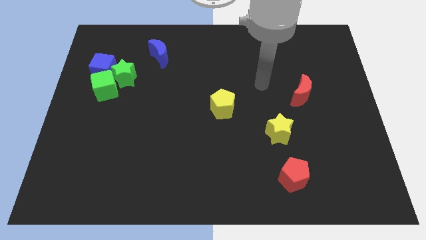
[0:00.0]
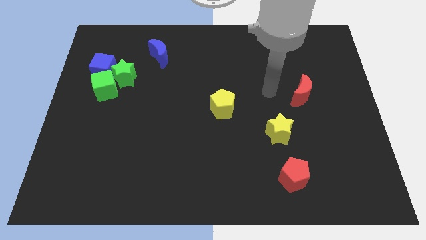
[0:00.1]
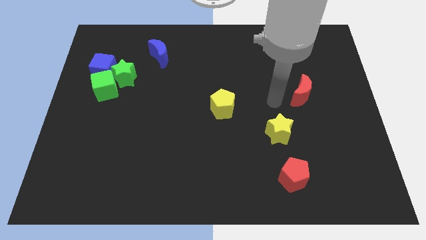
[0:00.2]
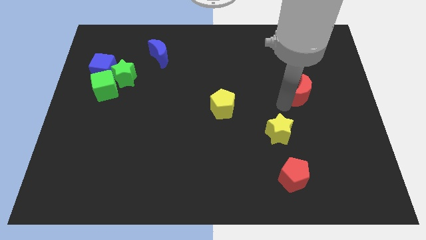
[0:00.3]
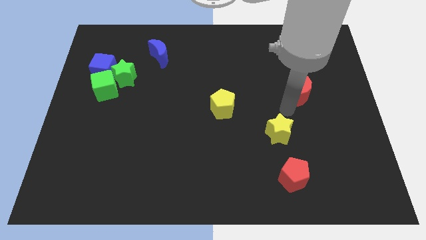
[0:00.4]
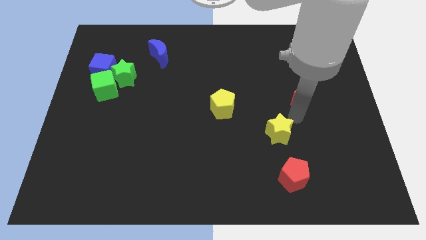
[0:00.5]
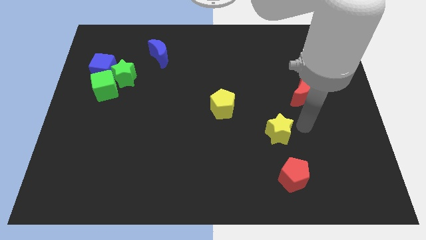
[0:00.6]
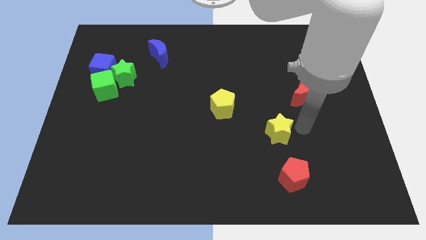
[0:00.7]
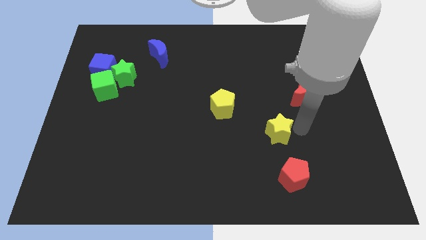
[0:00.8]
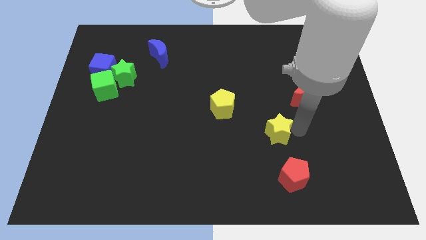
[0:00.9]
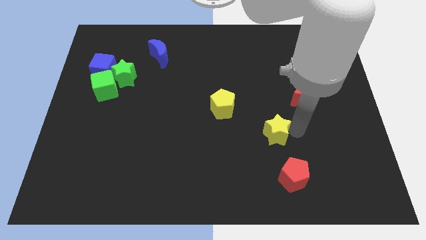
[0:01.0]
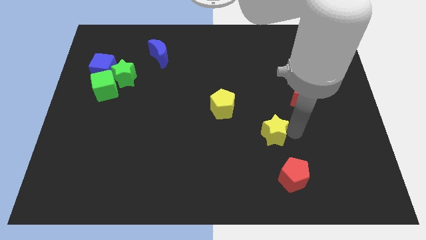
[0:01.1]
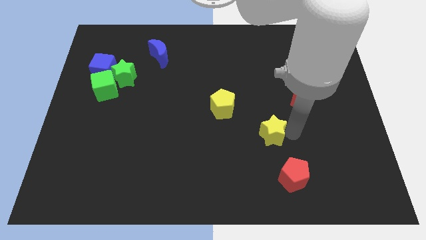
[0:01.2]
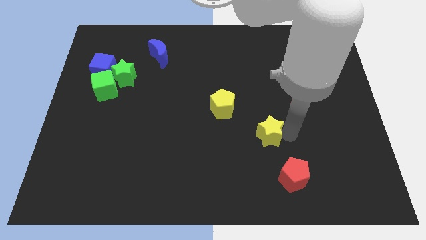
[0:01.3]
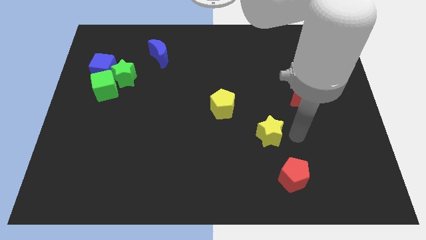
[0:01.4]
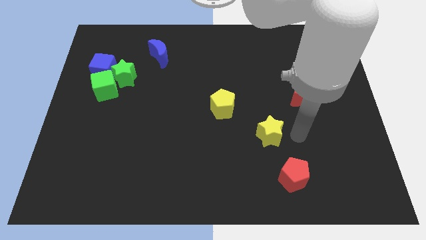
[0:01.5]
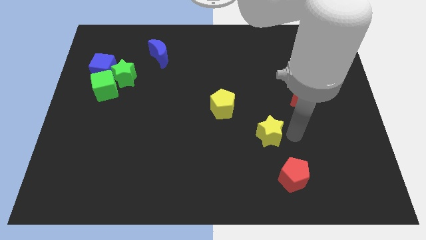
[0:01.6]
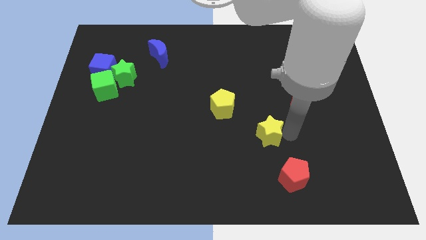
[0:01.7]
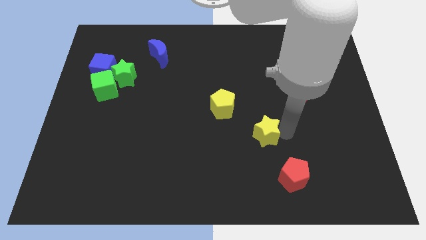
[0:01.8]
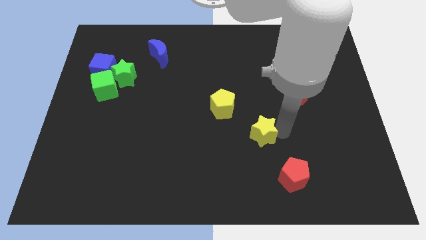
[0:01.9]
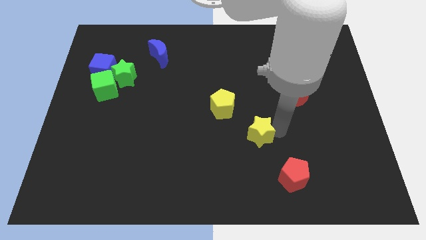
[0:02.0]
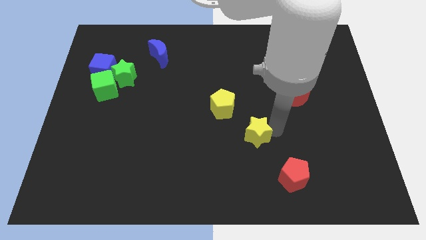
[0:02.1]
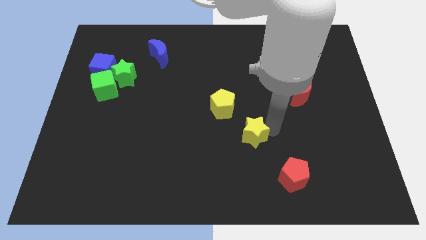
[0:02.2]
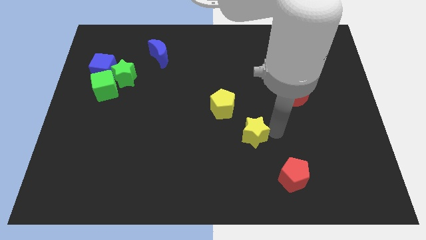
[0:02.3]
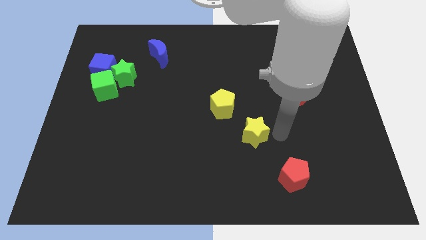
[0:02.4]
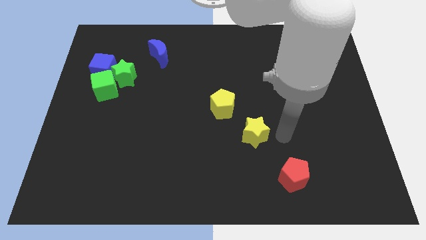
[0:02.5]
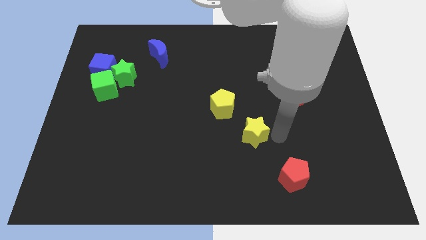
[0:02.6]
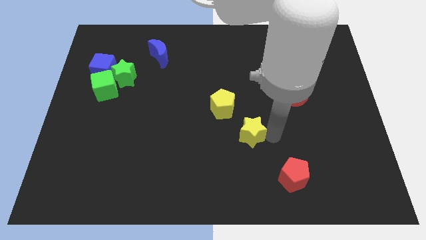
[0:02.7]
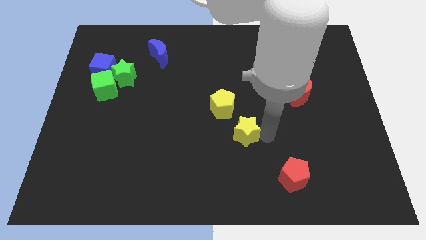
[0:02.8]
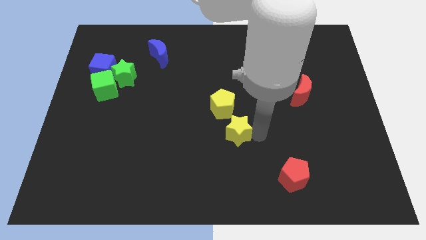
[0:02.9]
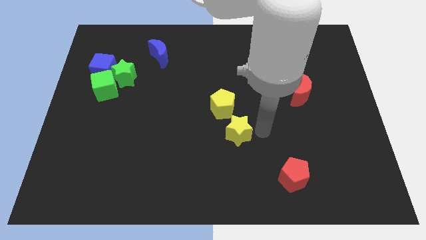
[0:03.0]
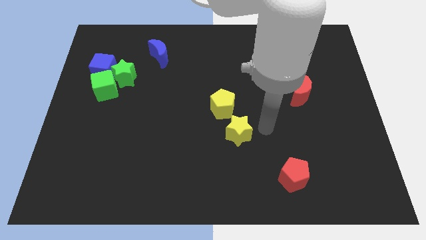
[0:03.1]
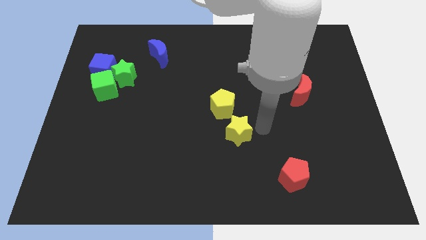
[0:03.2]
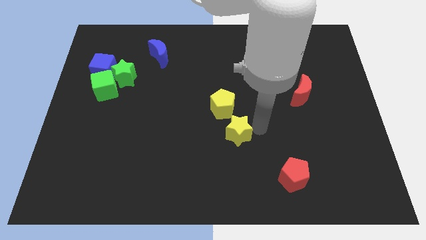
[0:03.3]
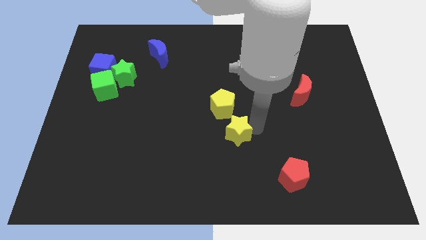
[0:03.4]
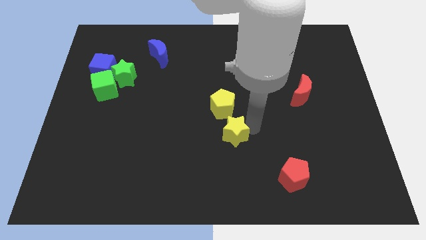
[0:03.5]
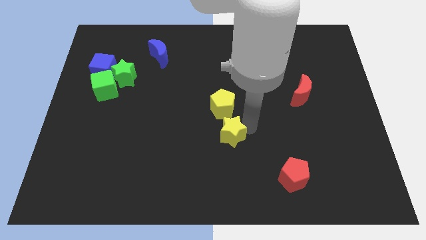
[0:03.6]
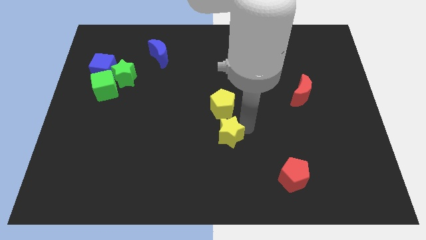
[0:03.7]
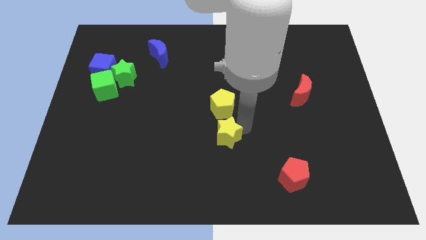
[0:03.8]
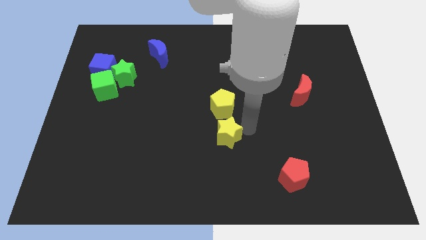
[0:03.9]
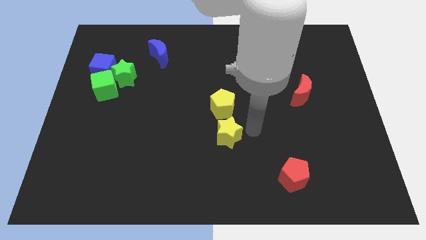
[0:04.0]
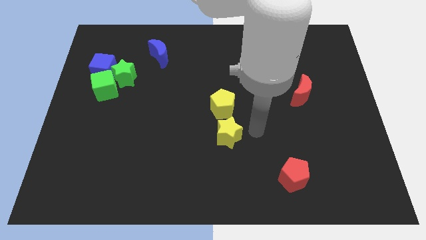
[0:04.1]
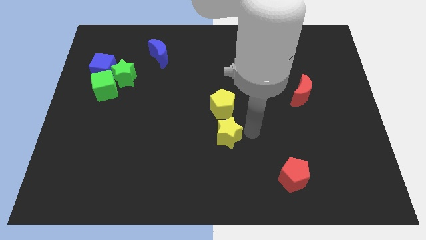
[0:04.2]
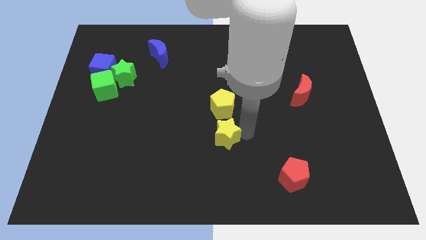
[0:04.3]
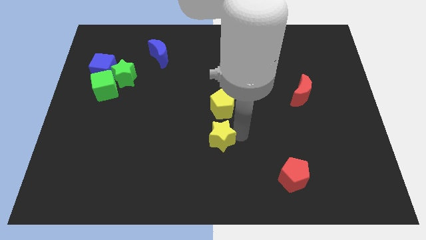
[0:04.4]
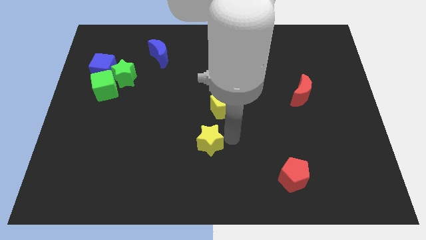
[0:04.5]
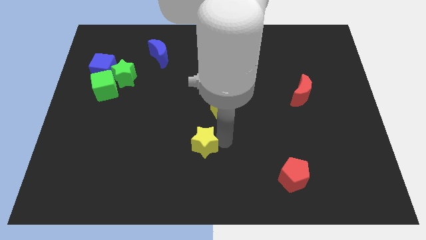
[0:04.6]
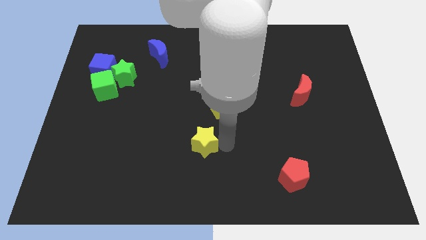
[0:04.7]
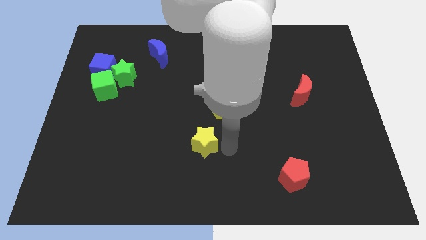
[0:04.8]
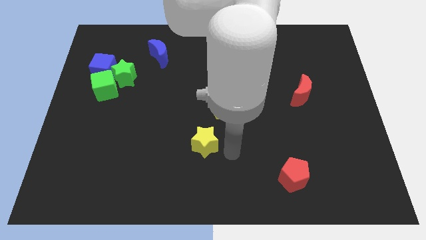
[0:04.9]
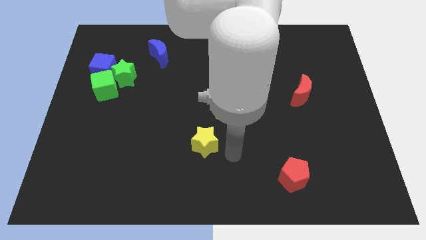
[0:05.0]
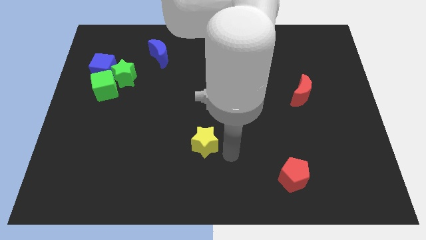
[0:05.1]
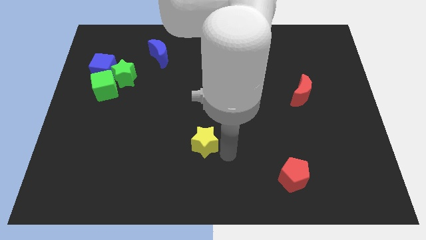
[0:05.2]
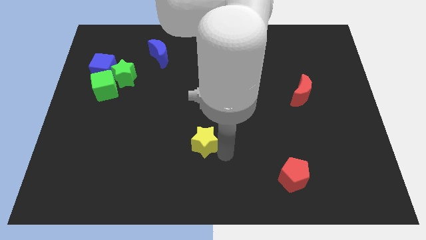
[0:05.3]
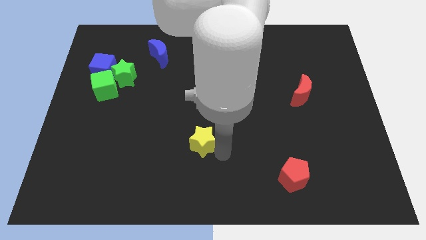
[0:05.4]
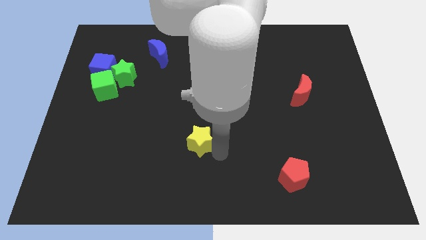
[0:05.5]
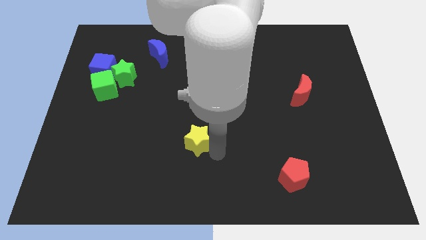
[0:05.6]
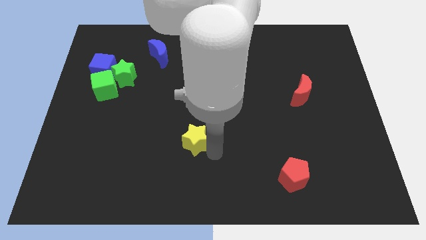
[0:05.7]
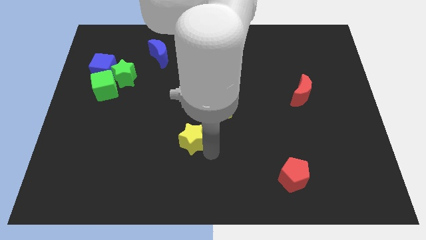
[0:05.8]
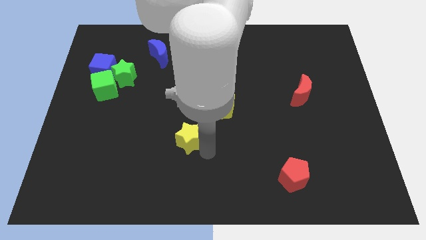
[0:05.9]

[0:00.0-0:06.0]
slide the yellow star to the left

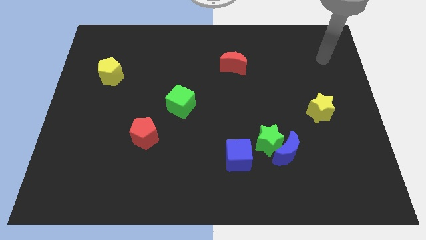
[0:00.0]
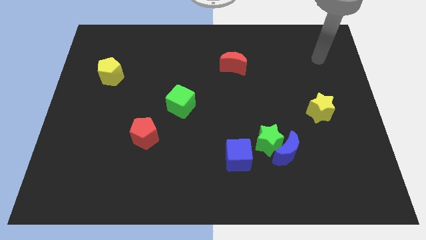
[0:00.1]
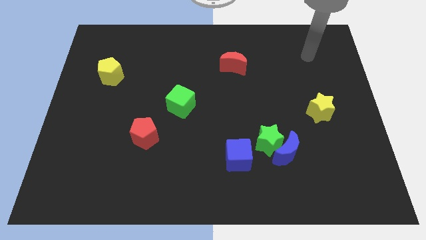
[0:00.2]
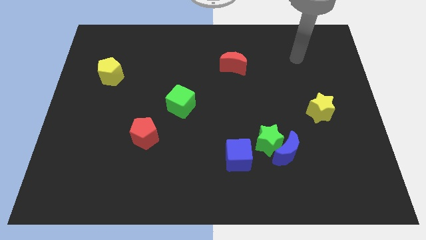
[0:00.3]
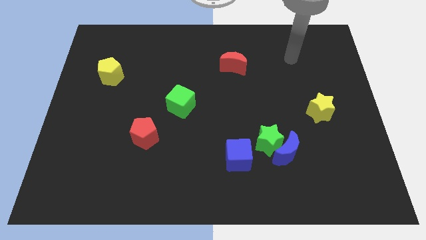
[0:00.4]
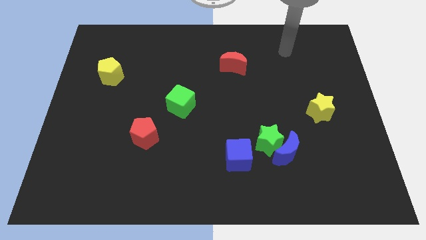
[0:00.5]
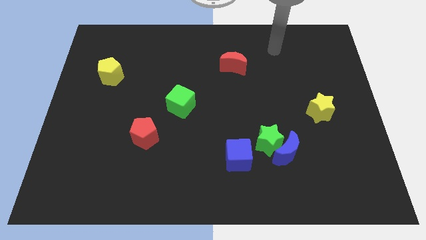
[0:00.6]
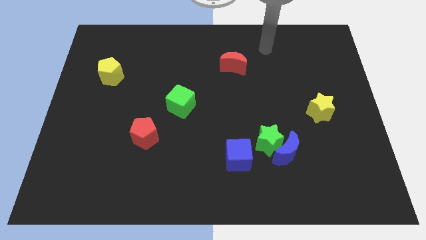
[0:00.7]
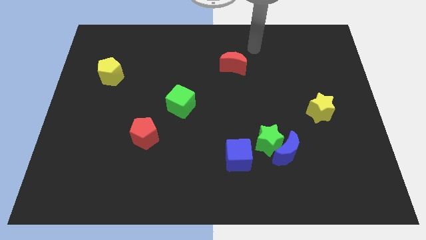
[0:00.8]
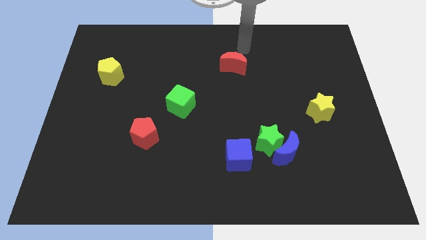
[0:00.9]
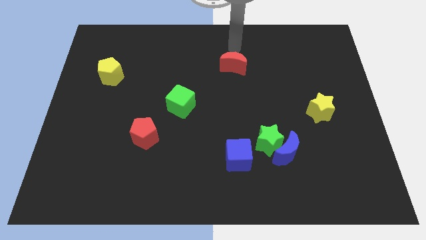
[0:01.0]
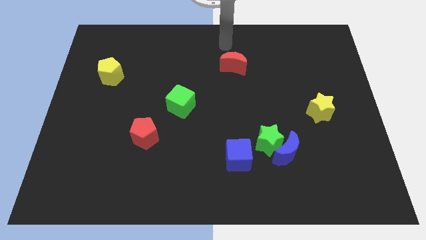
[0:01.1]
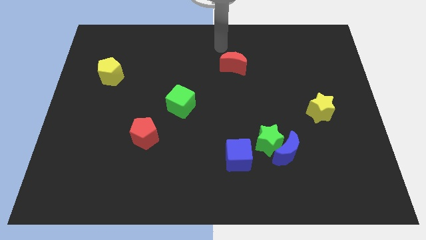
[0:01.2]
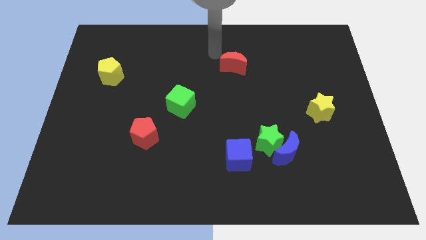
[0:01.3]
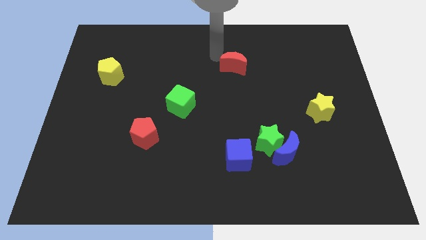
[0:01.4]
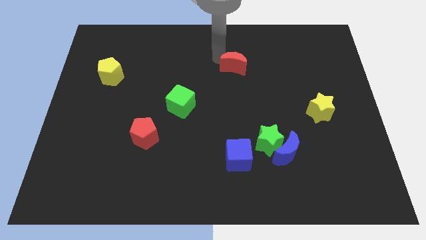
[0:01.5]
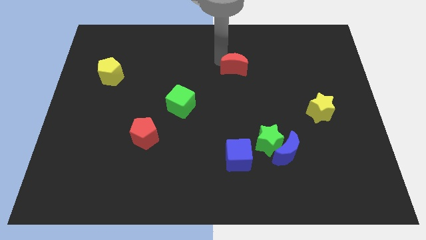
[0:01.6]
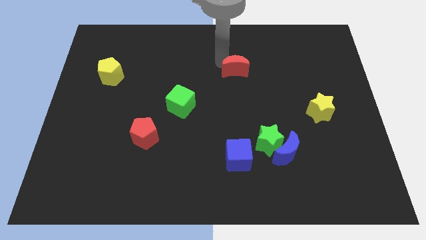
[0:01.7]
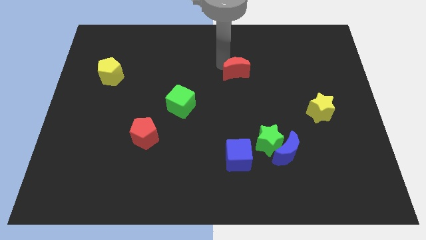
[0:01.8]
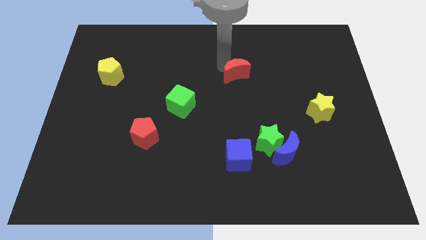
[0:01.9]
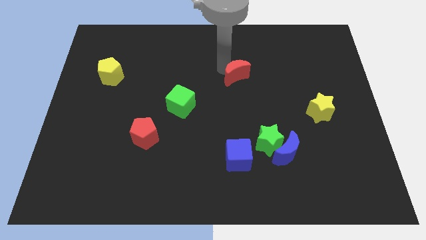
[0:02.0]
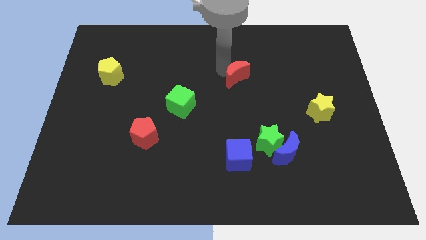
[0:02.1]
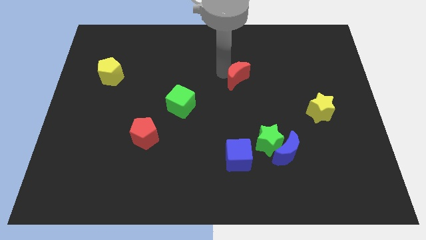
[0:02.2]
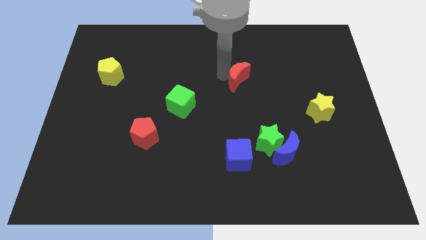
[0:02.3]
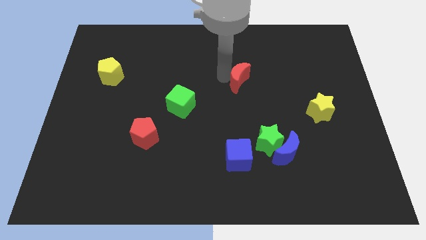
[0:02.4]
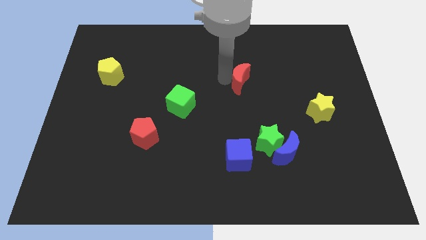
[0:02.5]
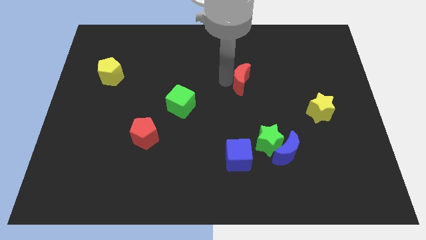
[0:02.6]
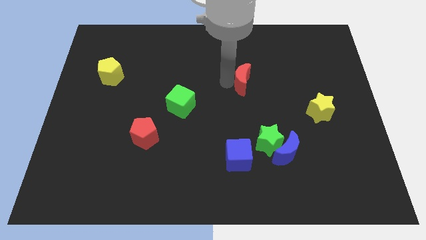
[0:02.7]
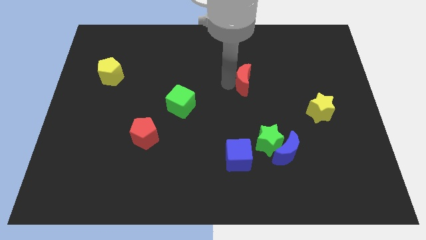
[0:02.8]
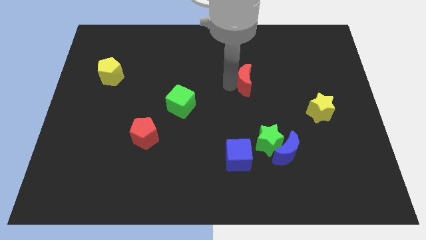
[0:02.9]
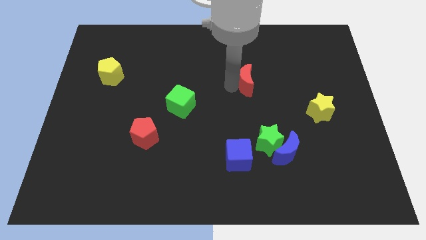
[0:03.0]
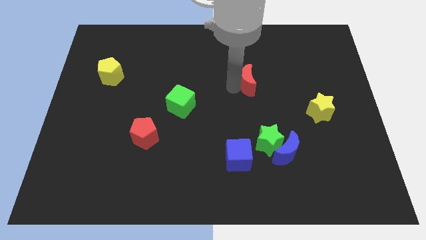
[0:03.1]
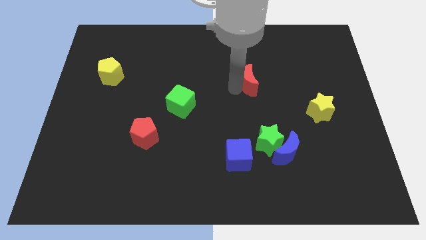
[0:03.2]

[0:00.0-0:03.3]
move the red moon downwards and then right somewhat
